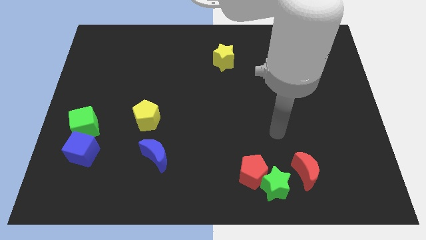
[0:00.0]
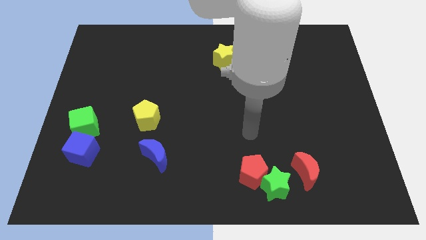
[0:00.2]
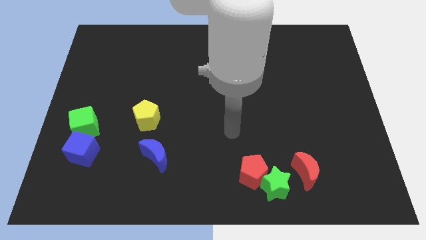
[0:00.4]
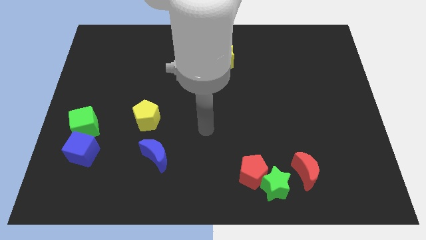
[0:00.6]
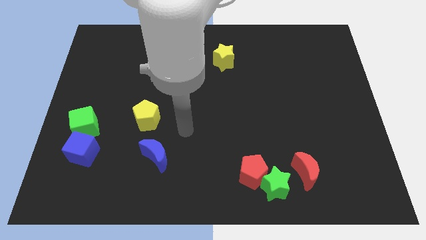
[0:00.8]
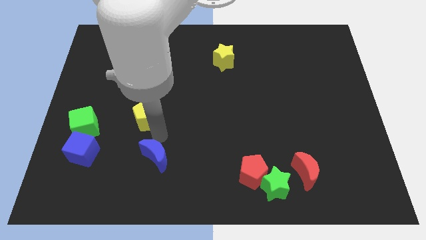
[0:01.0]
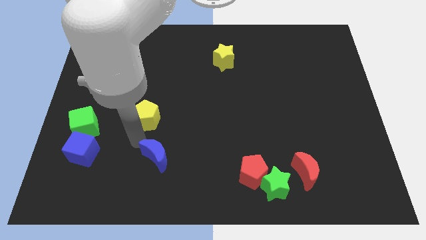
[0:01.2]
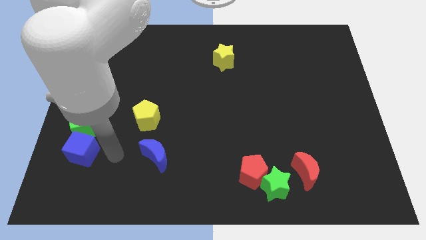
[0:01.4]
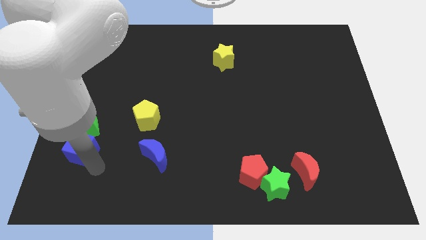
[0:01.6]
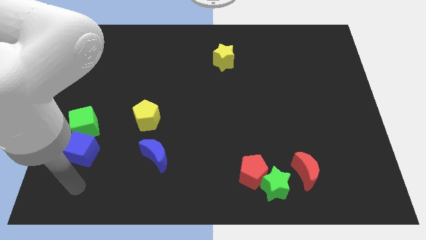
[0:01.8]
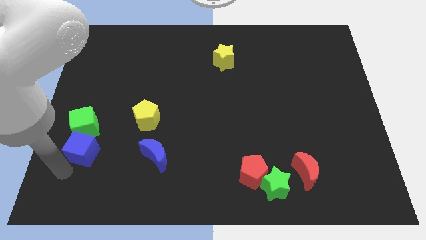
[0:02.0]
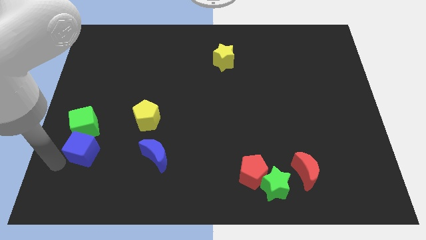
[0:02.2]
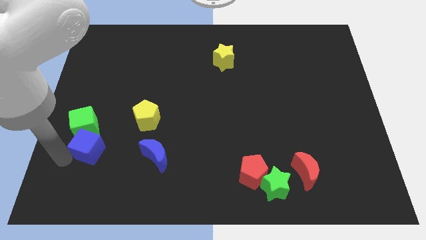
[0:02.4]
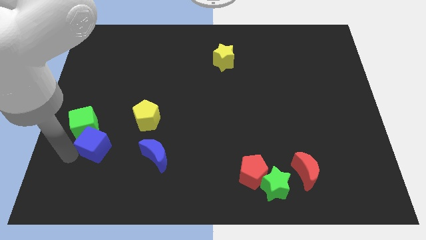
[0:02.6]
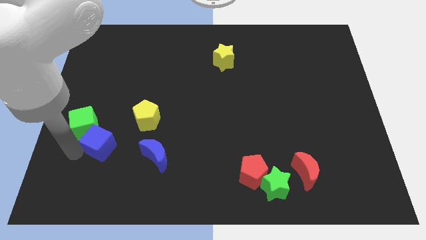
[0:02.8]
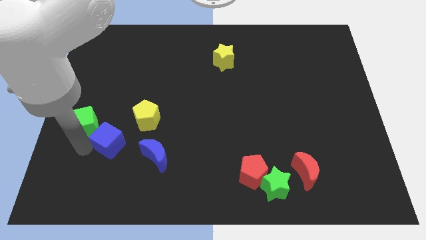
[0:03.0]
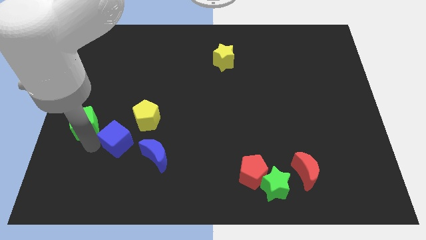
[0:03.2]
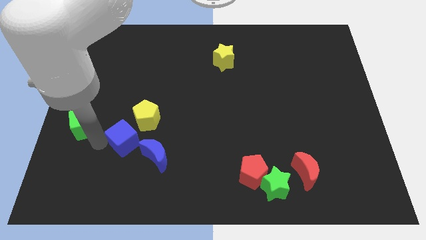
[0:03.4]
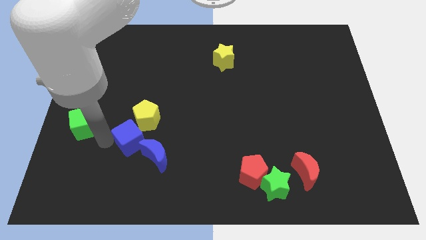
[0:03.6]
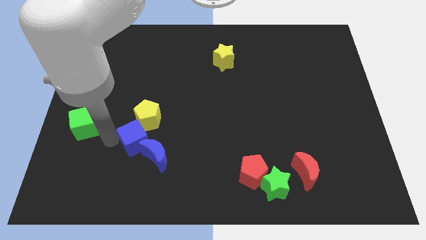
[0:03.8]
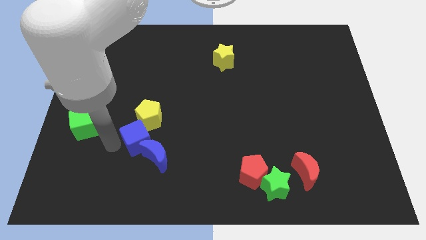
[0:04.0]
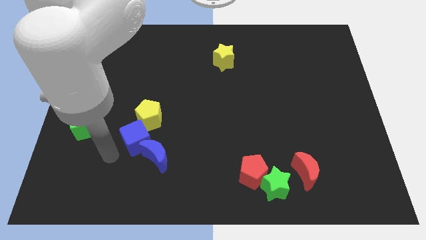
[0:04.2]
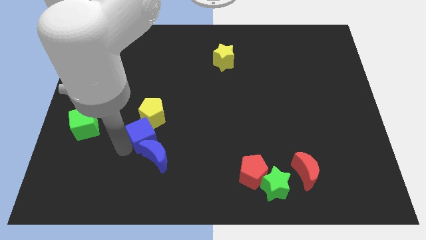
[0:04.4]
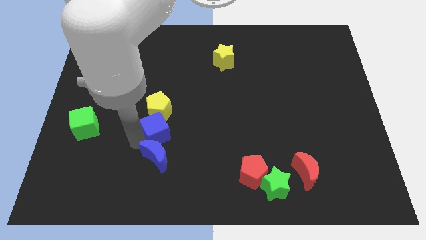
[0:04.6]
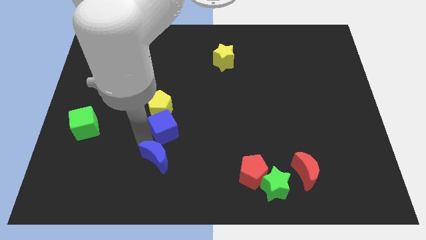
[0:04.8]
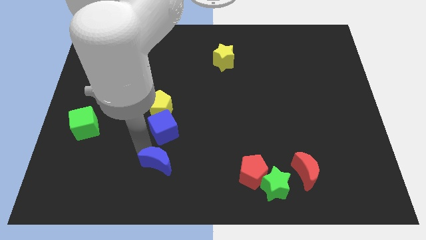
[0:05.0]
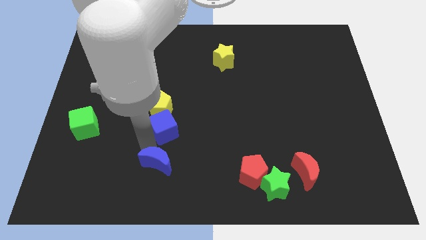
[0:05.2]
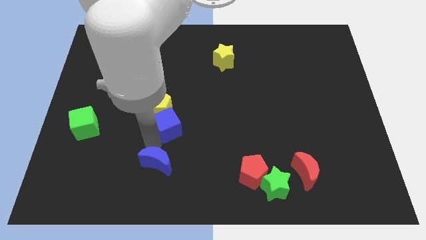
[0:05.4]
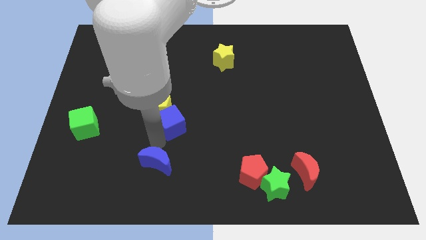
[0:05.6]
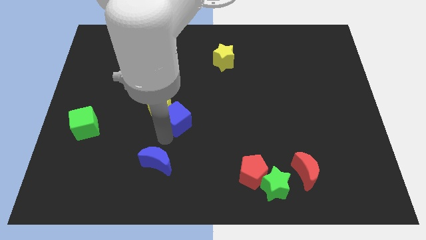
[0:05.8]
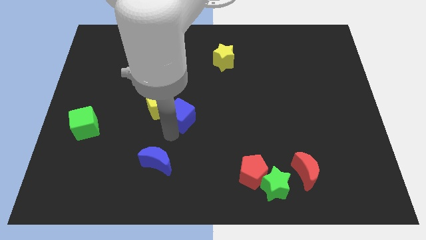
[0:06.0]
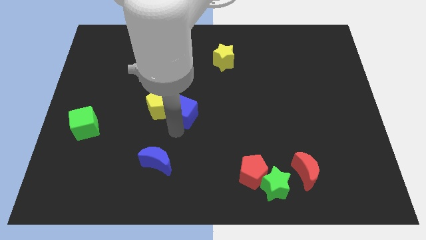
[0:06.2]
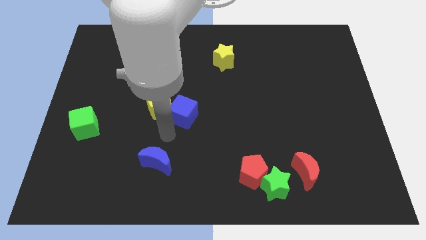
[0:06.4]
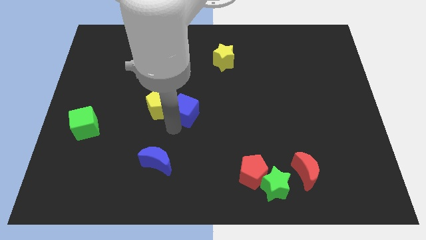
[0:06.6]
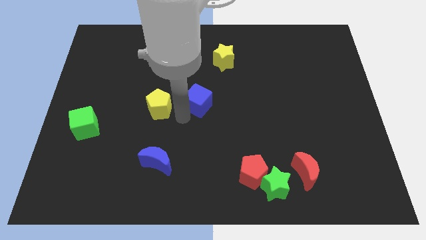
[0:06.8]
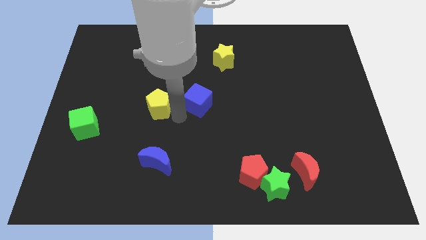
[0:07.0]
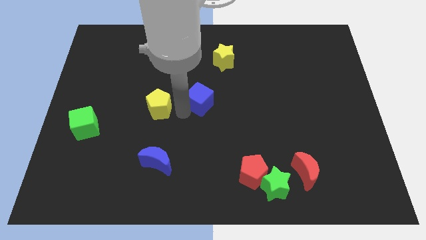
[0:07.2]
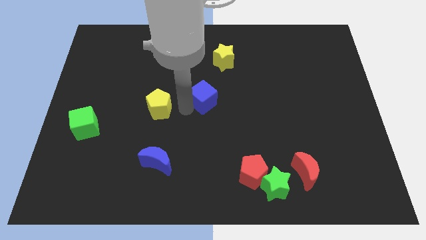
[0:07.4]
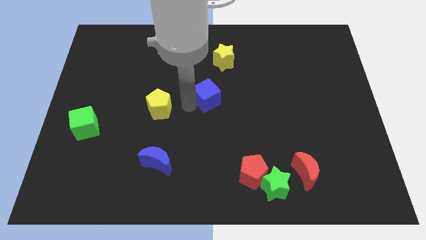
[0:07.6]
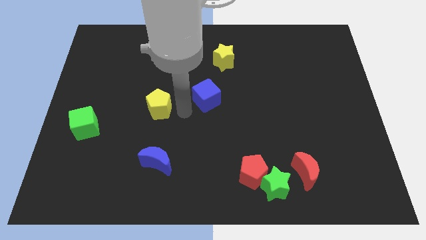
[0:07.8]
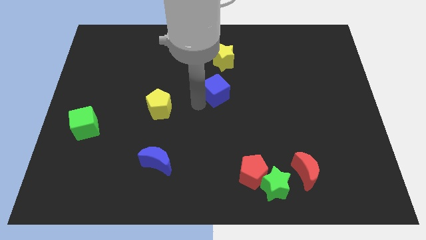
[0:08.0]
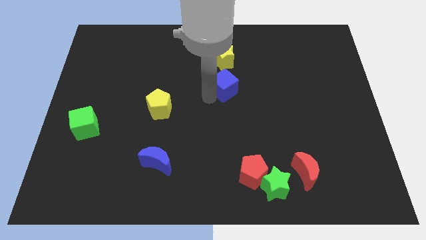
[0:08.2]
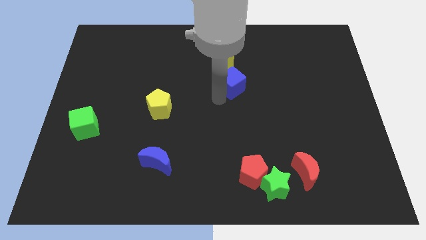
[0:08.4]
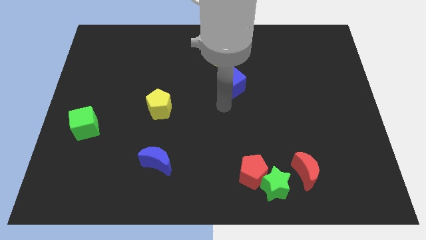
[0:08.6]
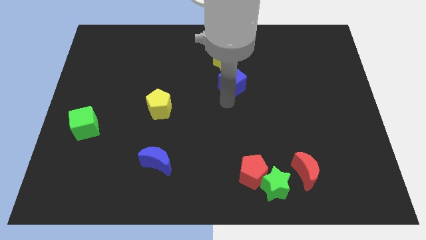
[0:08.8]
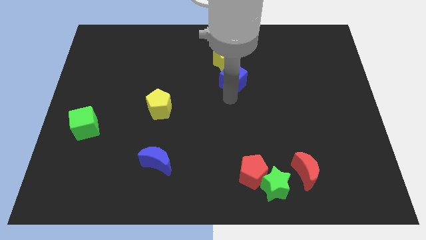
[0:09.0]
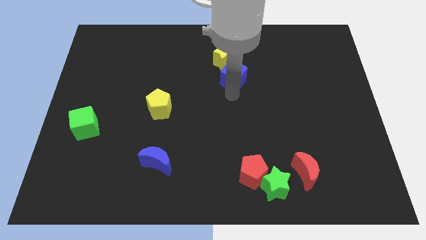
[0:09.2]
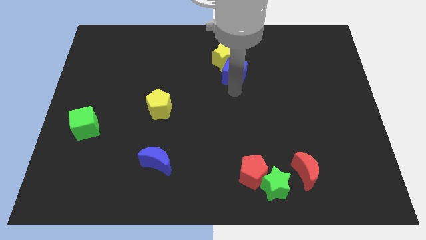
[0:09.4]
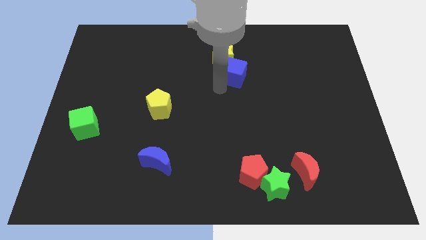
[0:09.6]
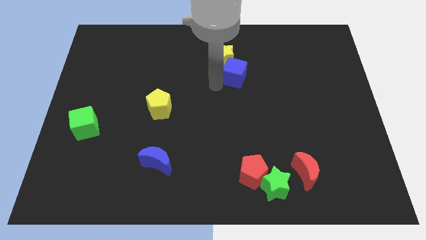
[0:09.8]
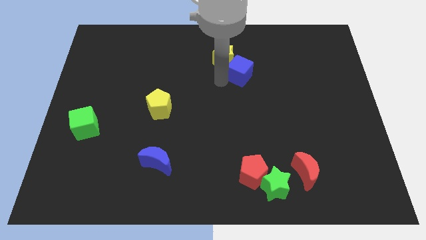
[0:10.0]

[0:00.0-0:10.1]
move the blue cube just right of the yellow star

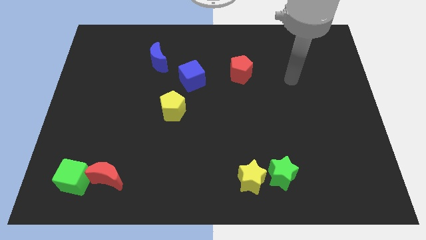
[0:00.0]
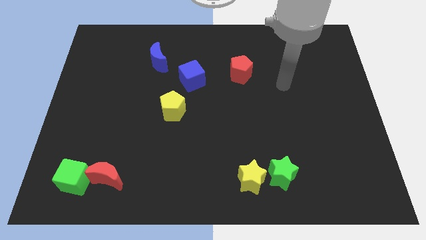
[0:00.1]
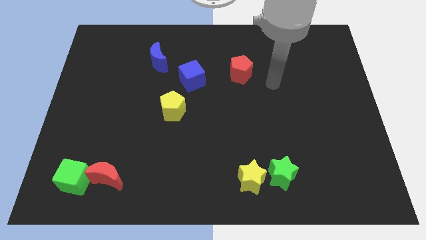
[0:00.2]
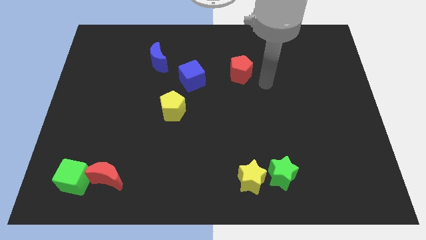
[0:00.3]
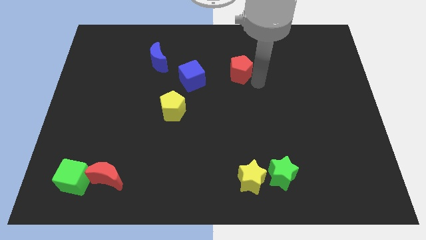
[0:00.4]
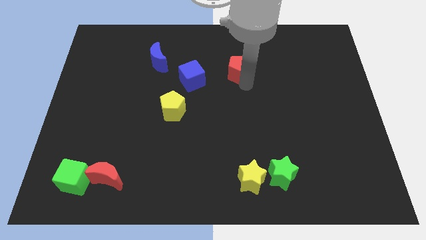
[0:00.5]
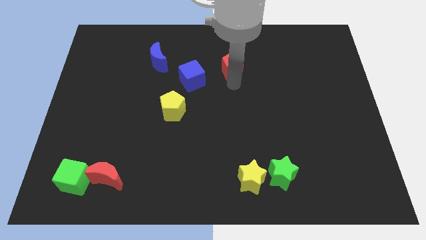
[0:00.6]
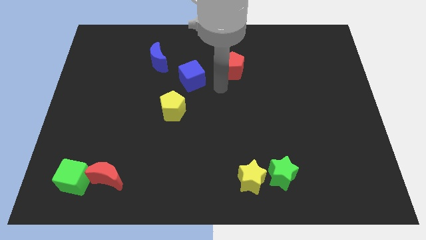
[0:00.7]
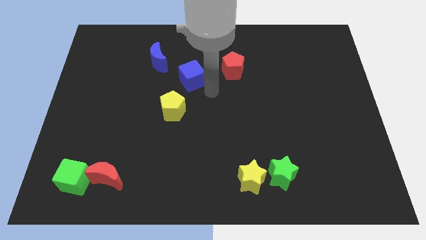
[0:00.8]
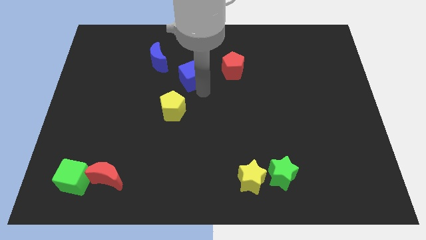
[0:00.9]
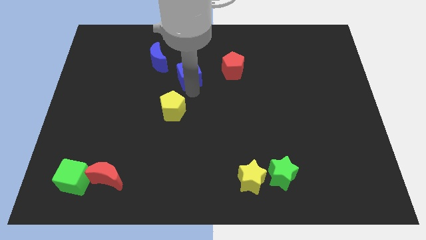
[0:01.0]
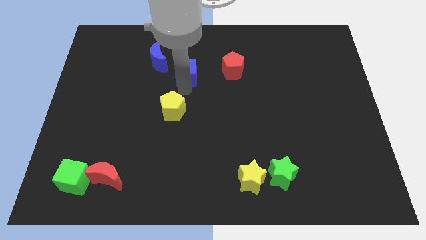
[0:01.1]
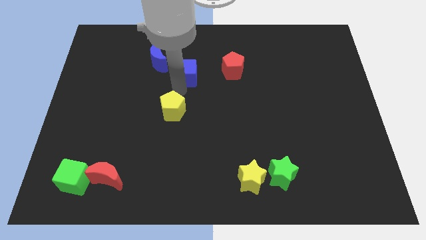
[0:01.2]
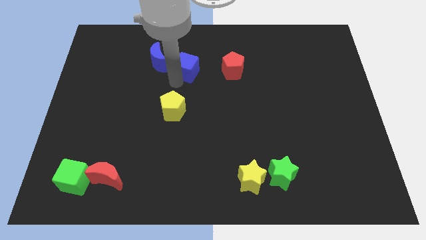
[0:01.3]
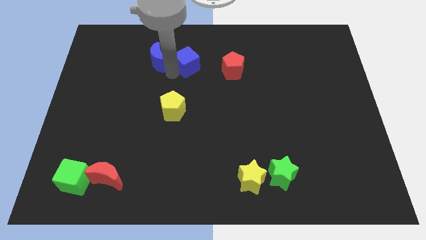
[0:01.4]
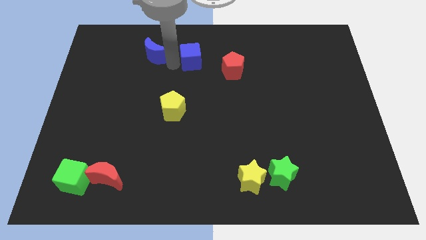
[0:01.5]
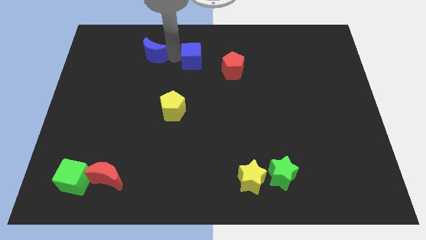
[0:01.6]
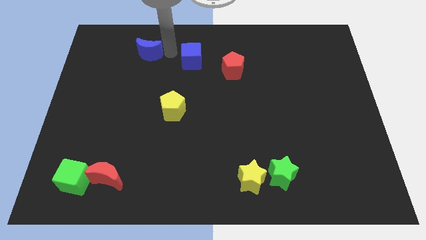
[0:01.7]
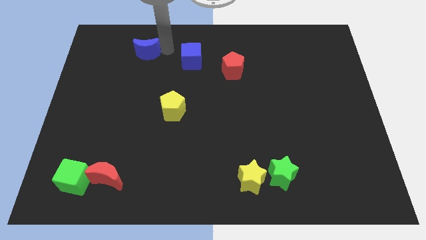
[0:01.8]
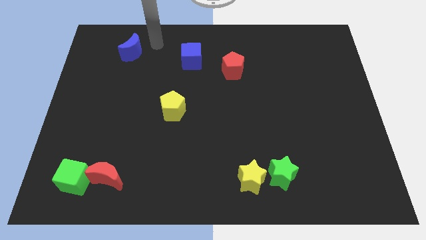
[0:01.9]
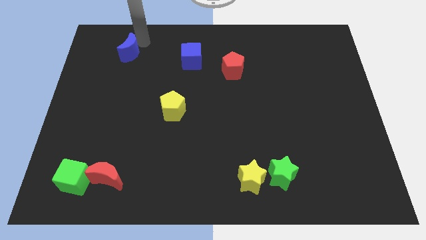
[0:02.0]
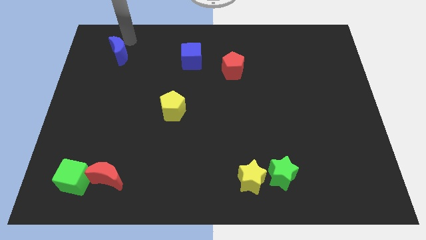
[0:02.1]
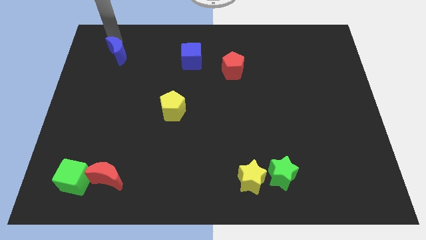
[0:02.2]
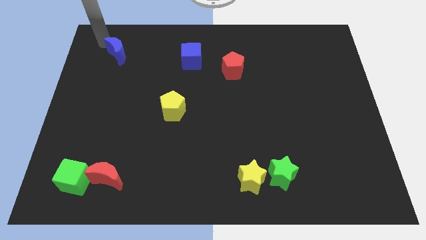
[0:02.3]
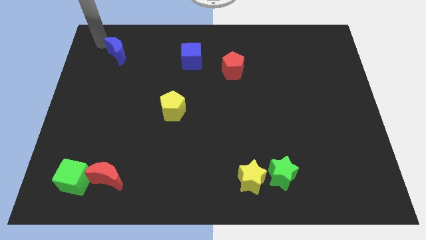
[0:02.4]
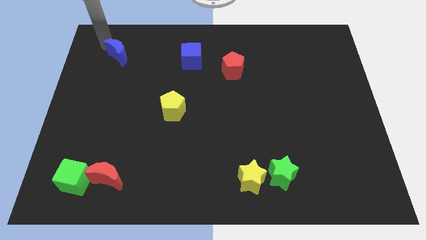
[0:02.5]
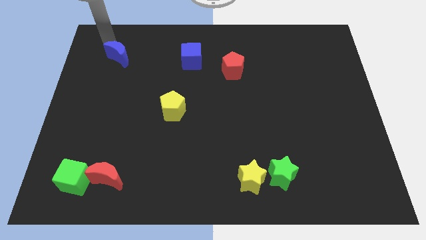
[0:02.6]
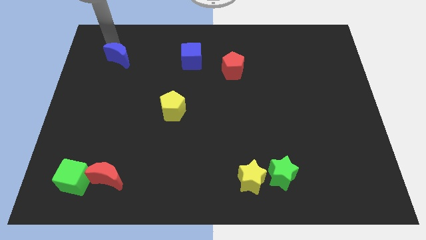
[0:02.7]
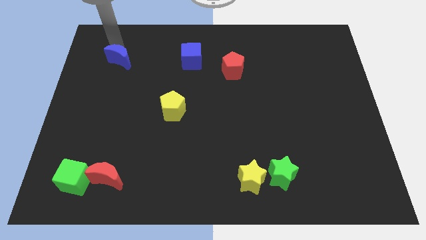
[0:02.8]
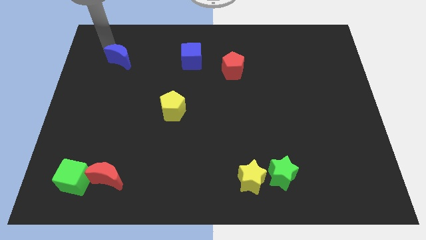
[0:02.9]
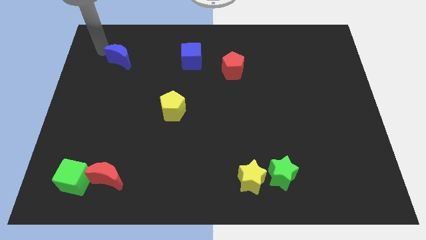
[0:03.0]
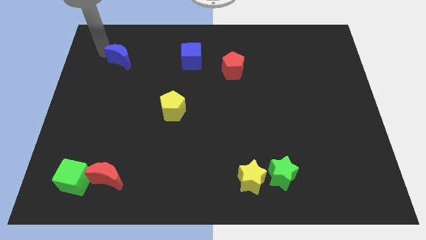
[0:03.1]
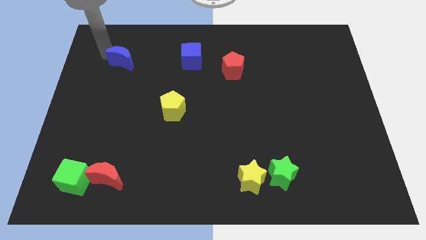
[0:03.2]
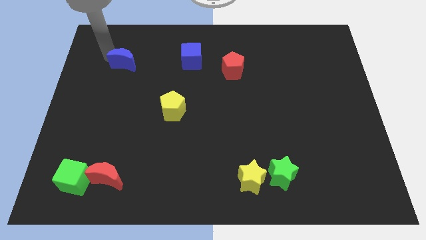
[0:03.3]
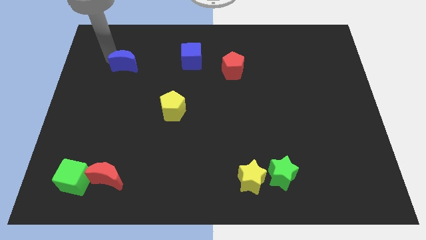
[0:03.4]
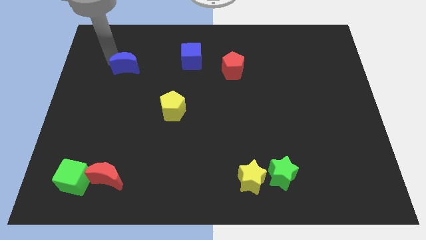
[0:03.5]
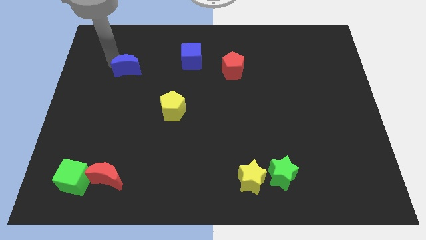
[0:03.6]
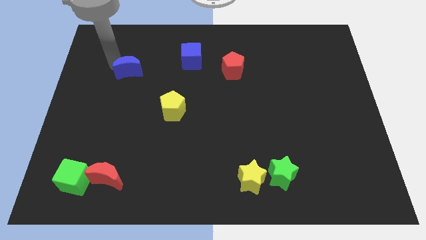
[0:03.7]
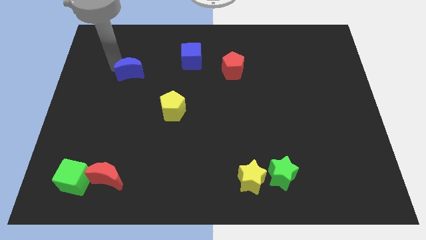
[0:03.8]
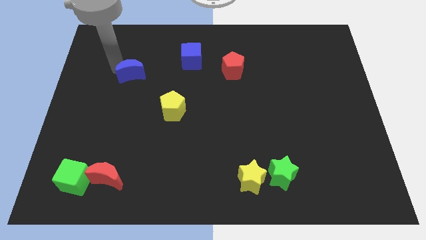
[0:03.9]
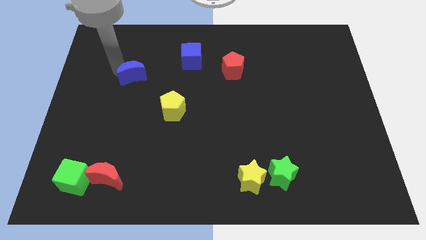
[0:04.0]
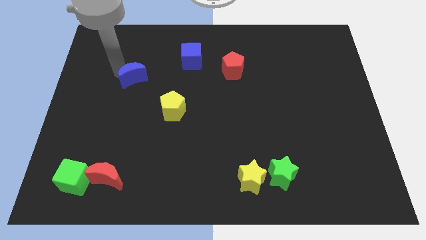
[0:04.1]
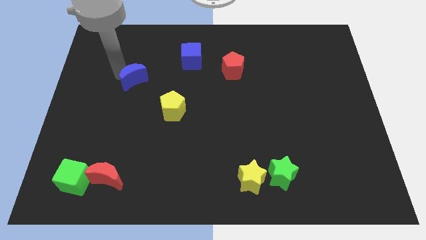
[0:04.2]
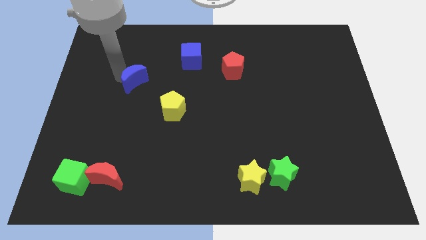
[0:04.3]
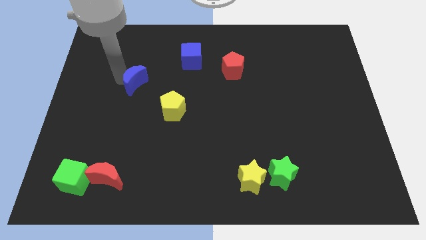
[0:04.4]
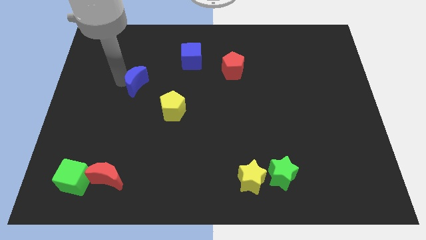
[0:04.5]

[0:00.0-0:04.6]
put the blue moon diagonally up and to the left of the yellow pentagon
